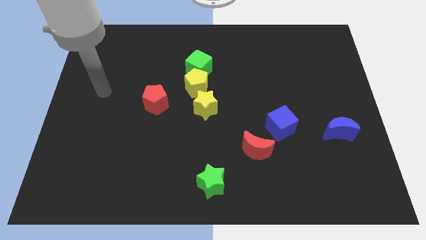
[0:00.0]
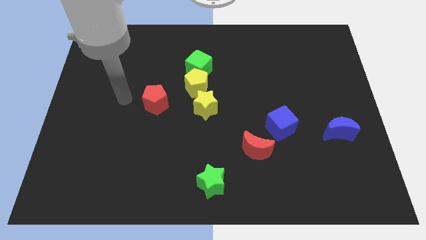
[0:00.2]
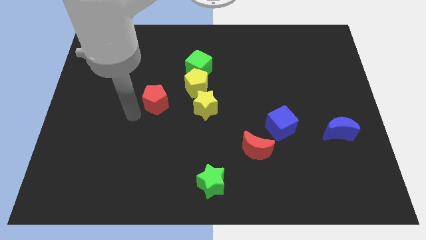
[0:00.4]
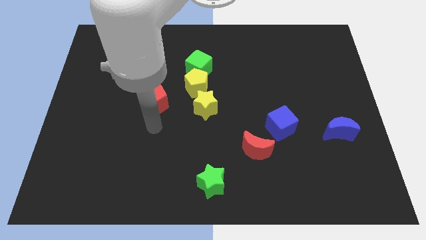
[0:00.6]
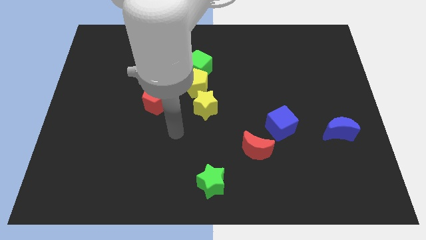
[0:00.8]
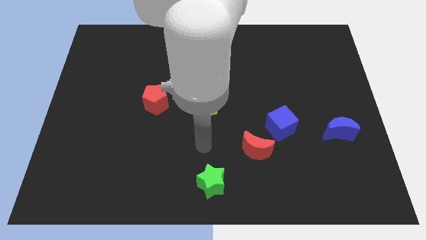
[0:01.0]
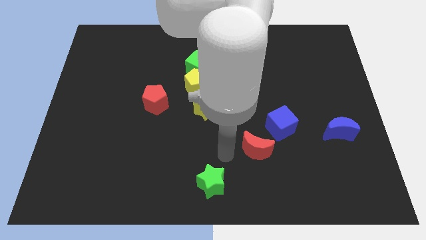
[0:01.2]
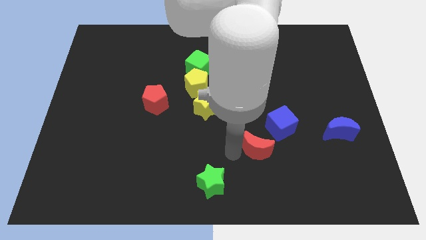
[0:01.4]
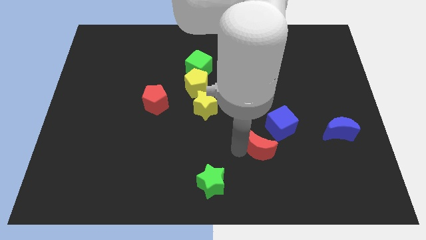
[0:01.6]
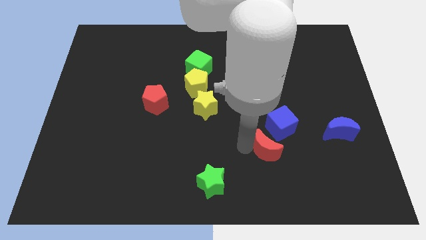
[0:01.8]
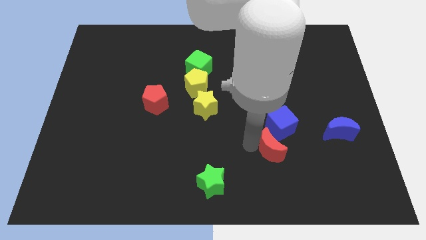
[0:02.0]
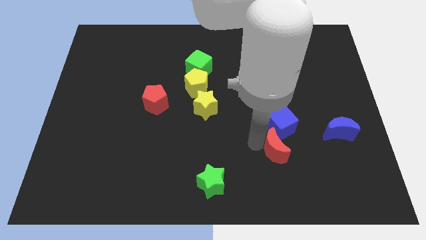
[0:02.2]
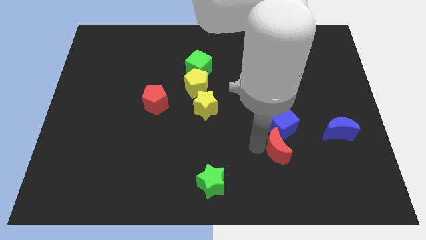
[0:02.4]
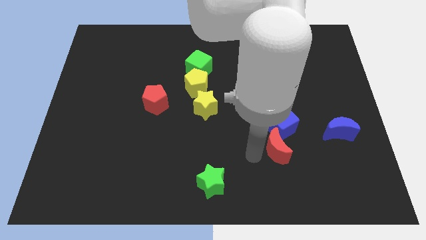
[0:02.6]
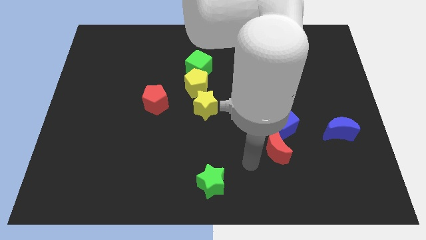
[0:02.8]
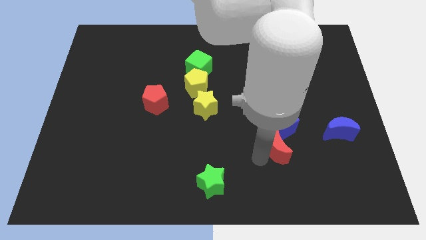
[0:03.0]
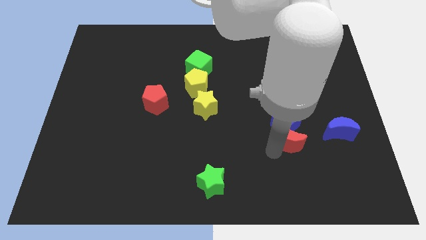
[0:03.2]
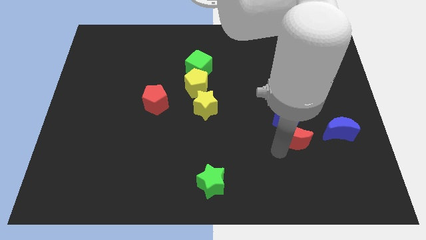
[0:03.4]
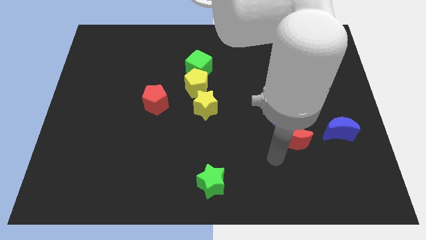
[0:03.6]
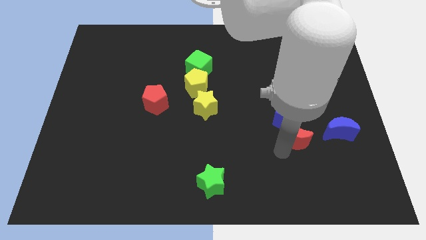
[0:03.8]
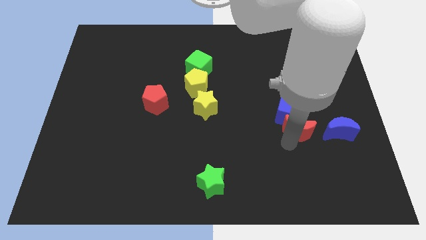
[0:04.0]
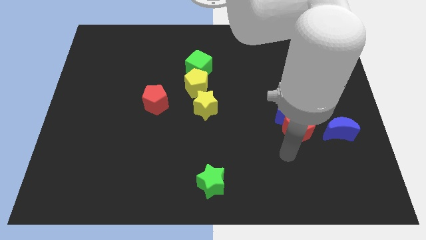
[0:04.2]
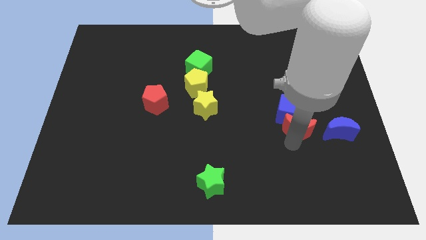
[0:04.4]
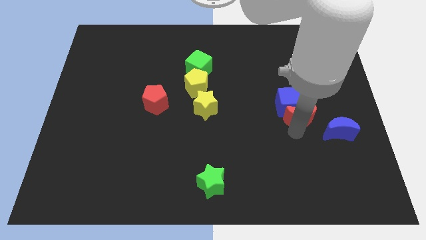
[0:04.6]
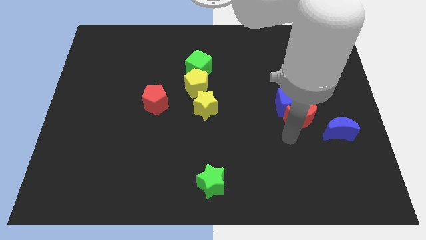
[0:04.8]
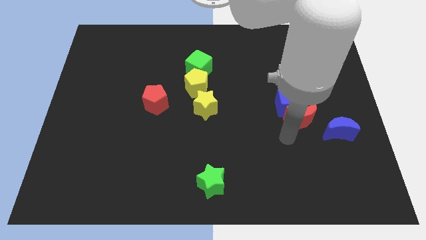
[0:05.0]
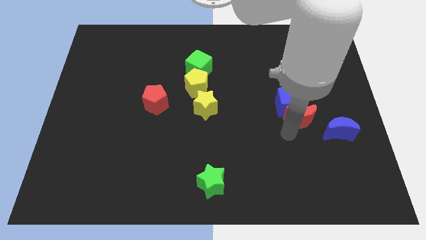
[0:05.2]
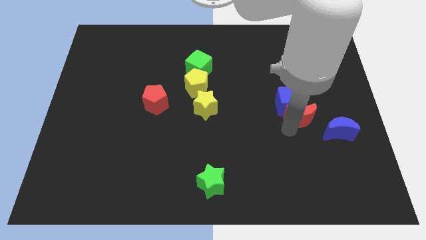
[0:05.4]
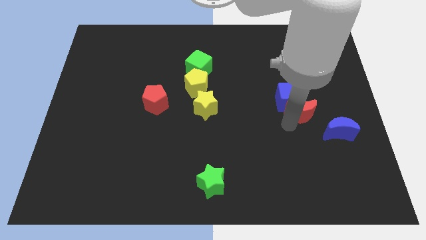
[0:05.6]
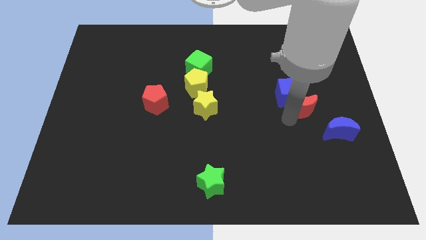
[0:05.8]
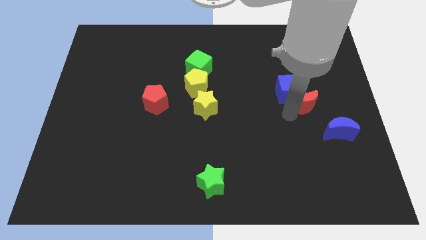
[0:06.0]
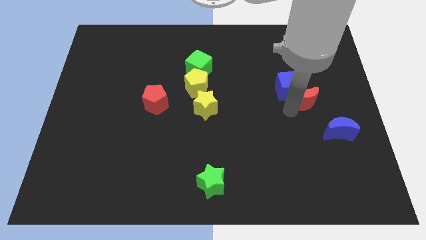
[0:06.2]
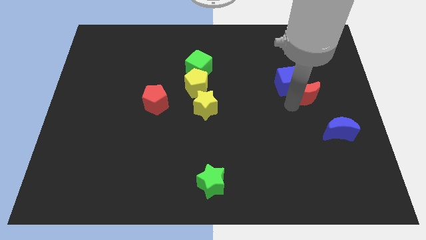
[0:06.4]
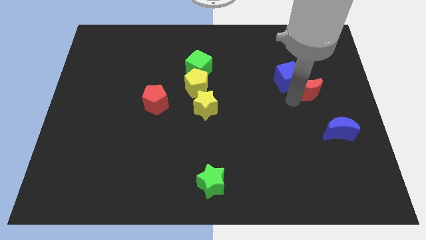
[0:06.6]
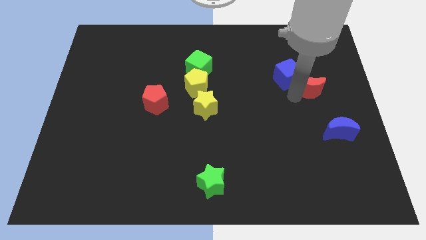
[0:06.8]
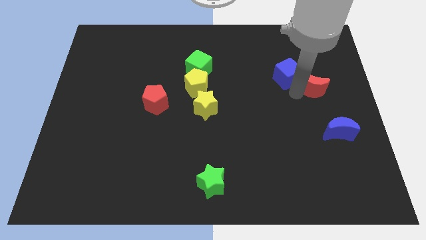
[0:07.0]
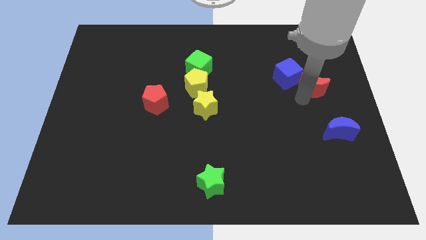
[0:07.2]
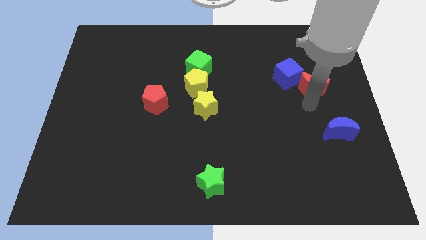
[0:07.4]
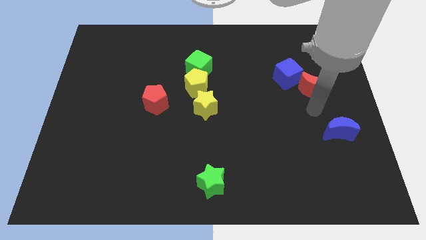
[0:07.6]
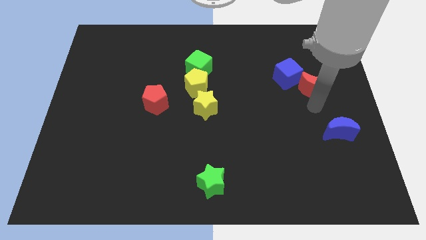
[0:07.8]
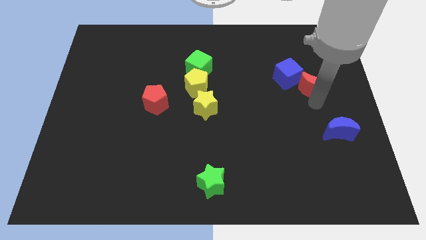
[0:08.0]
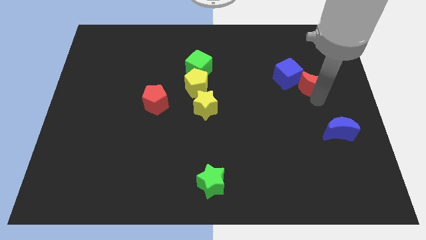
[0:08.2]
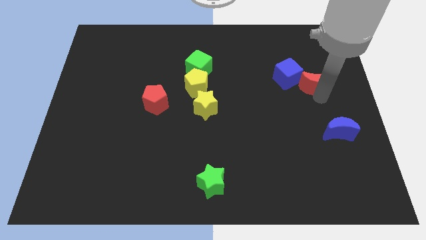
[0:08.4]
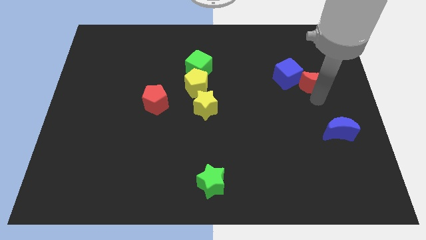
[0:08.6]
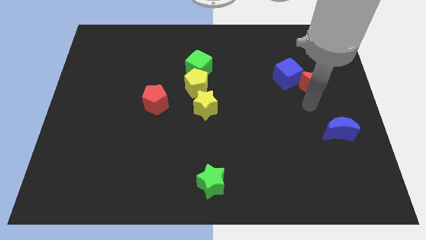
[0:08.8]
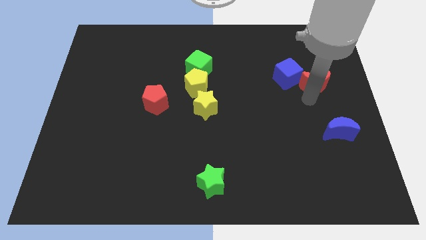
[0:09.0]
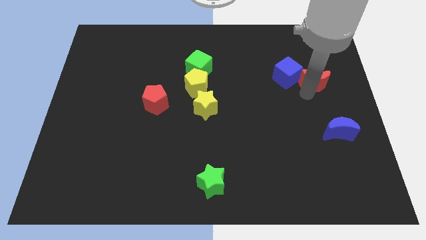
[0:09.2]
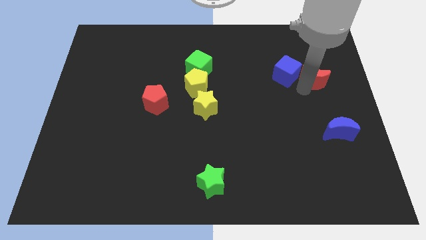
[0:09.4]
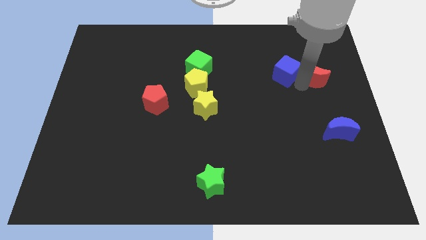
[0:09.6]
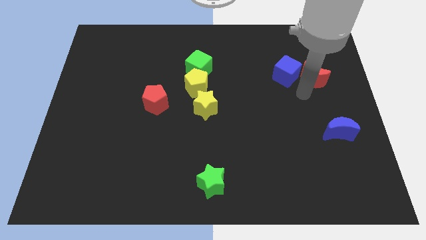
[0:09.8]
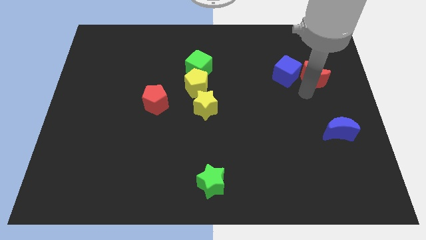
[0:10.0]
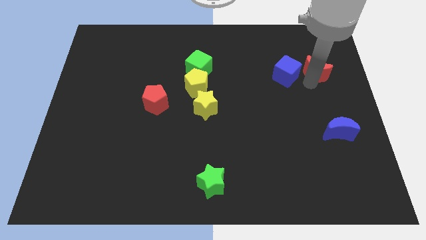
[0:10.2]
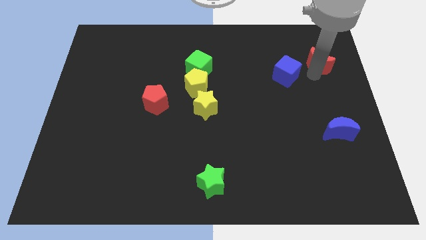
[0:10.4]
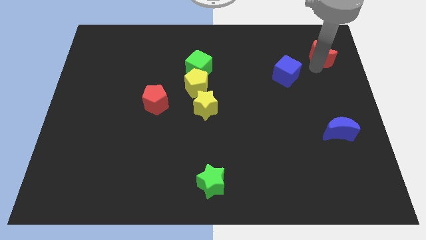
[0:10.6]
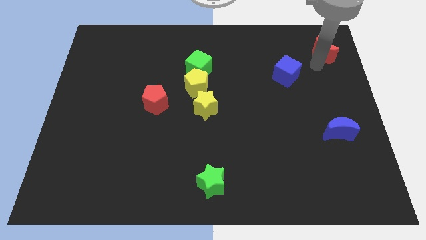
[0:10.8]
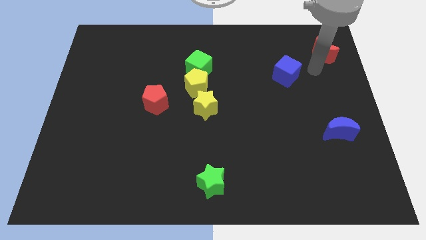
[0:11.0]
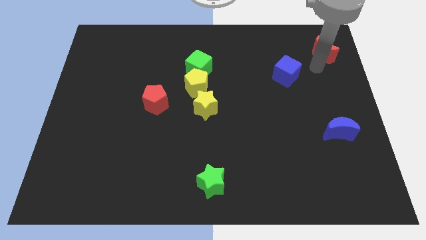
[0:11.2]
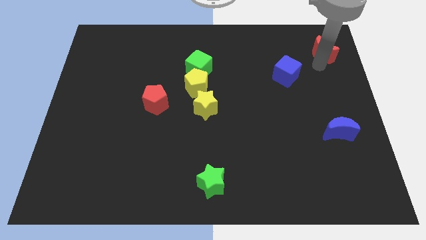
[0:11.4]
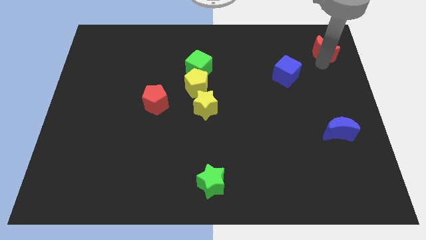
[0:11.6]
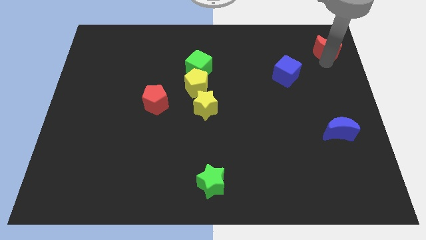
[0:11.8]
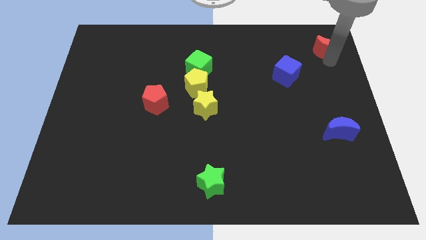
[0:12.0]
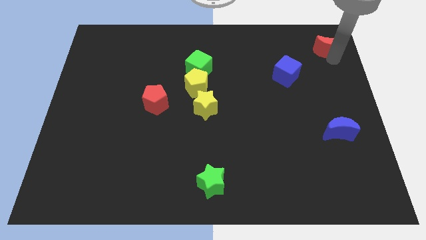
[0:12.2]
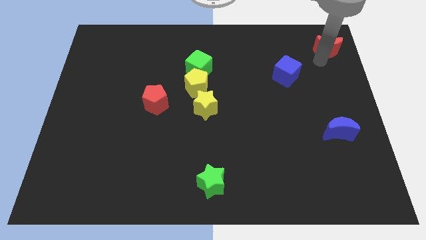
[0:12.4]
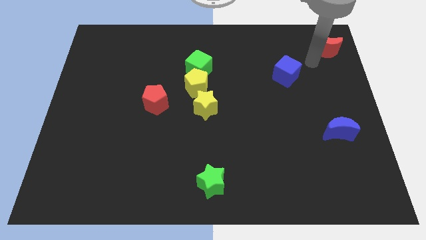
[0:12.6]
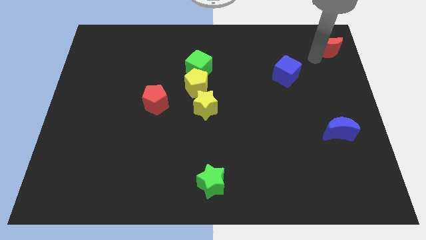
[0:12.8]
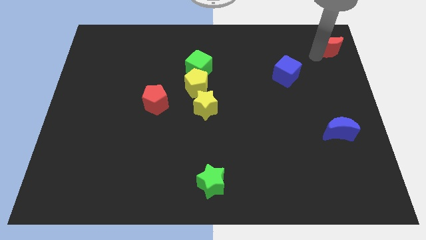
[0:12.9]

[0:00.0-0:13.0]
move the red moon to the top right of the board

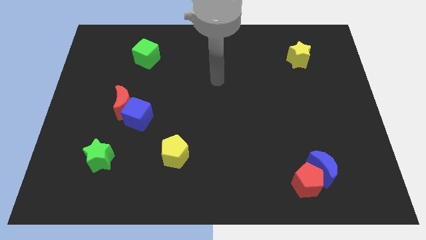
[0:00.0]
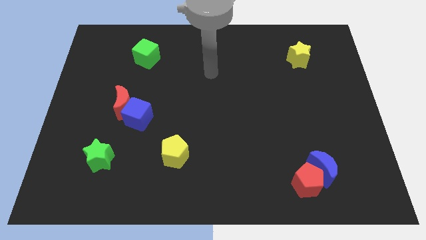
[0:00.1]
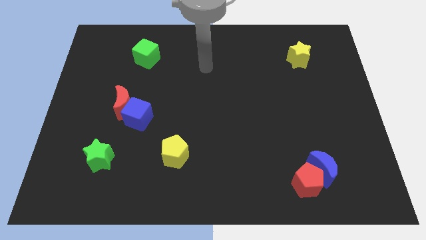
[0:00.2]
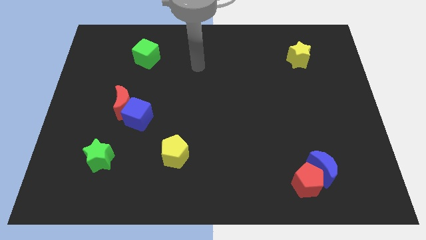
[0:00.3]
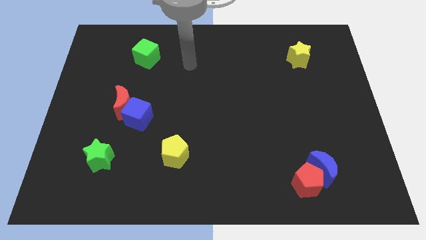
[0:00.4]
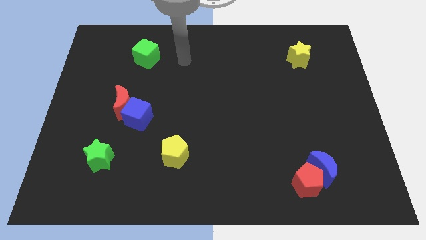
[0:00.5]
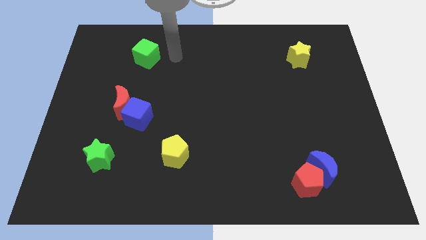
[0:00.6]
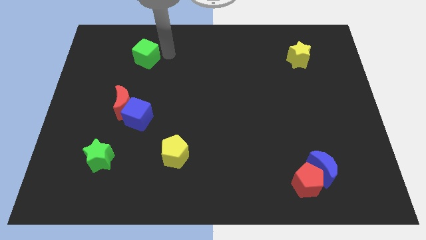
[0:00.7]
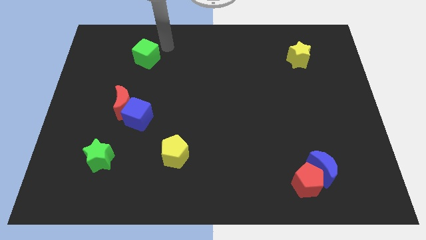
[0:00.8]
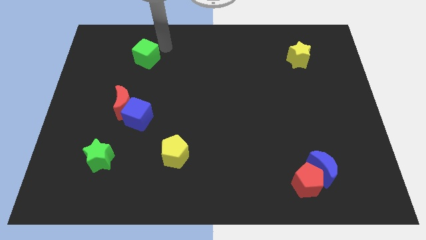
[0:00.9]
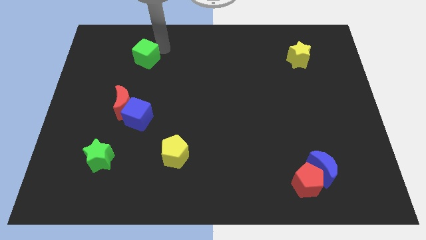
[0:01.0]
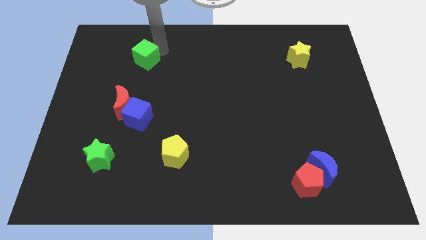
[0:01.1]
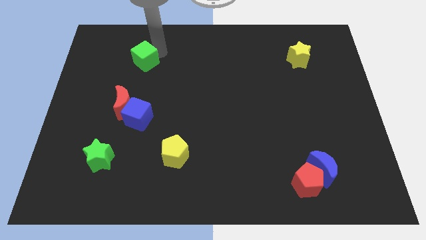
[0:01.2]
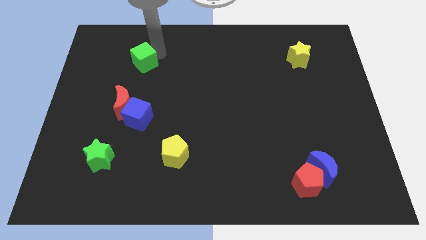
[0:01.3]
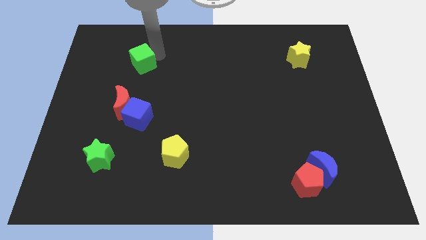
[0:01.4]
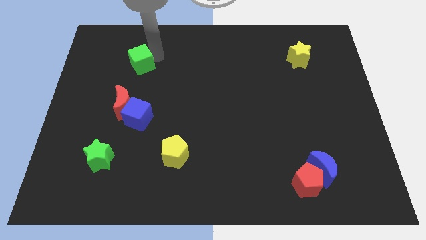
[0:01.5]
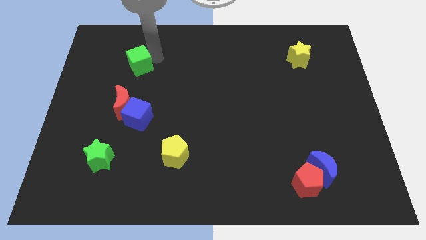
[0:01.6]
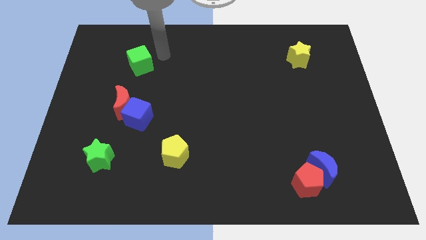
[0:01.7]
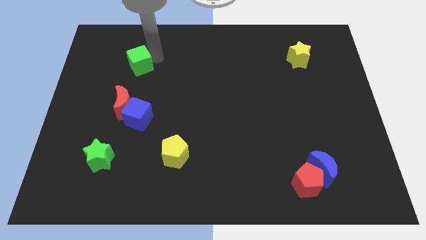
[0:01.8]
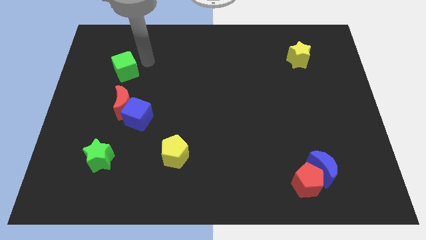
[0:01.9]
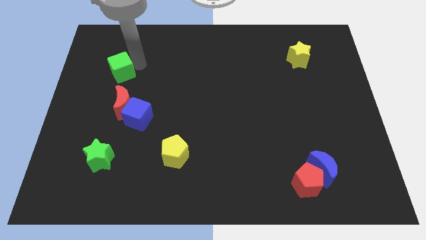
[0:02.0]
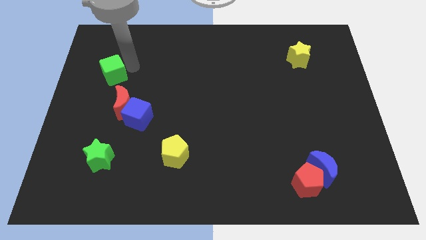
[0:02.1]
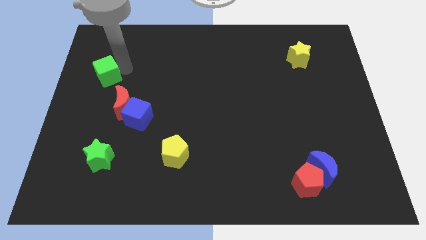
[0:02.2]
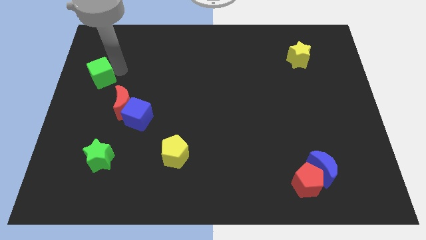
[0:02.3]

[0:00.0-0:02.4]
move the green cube to the left side of the board
